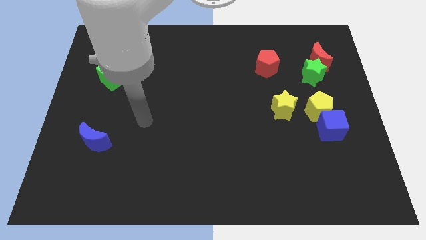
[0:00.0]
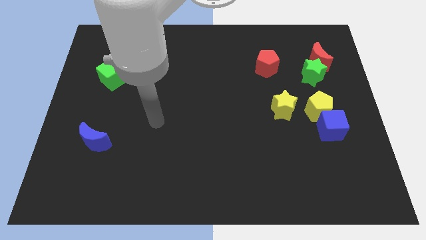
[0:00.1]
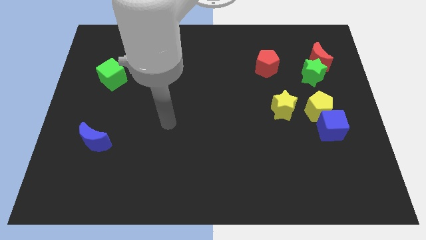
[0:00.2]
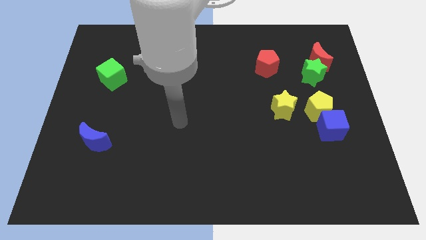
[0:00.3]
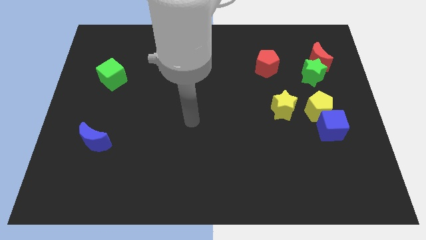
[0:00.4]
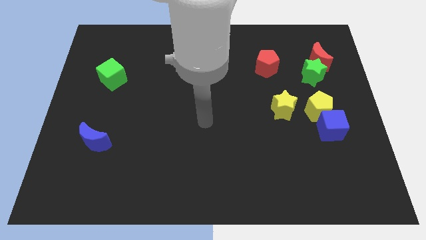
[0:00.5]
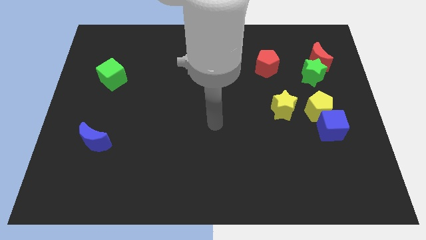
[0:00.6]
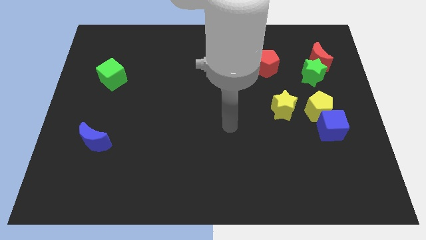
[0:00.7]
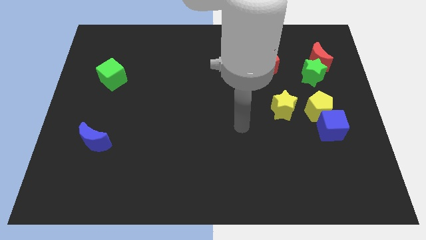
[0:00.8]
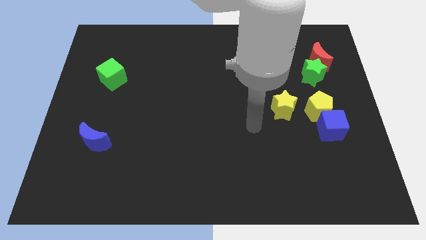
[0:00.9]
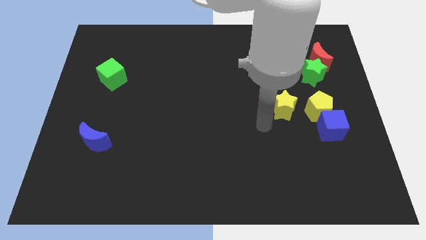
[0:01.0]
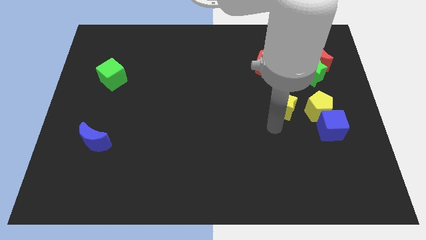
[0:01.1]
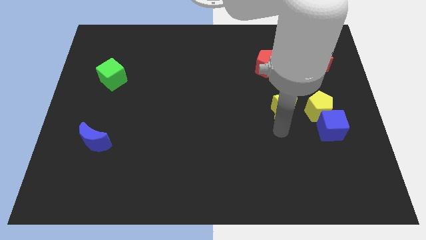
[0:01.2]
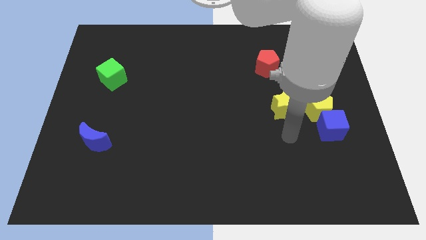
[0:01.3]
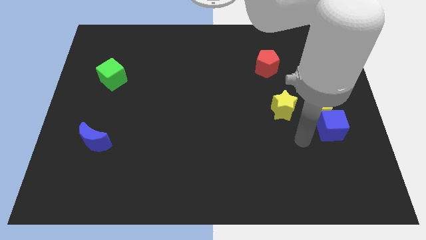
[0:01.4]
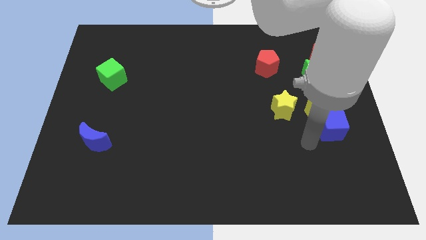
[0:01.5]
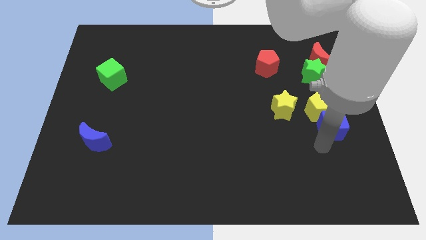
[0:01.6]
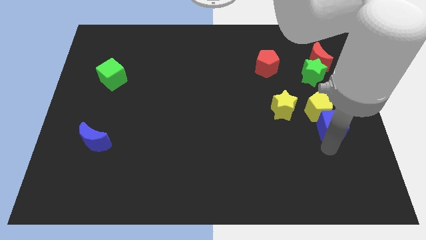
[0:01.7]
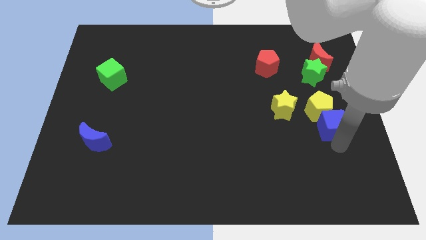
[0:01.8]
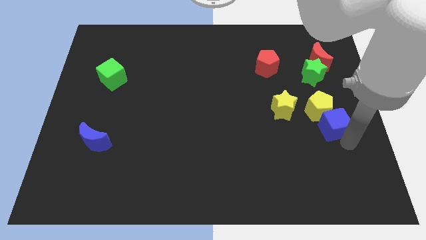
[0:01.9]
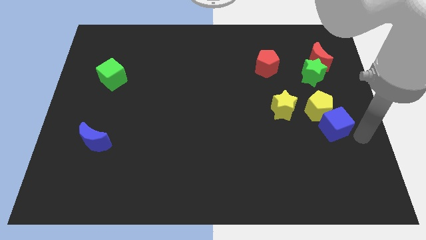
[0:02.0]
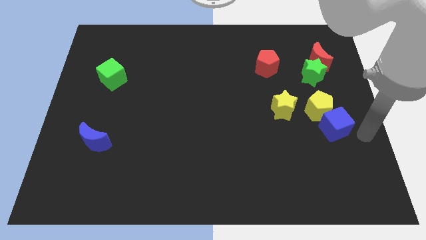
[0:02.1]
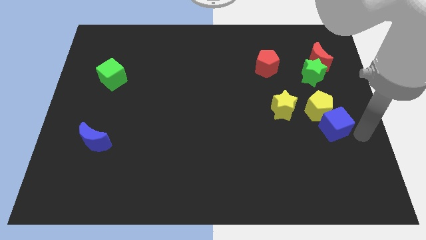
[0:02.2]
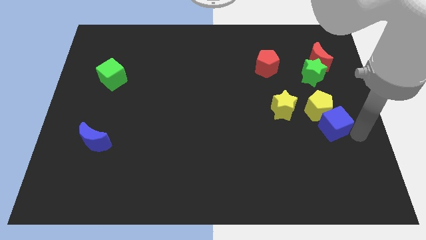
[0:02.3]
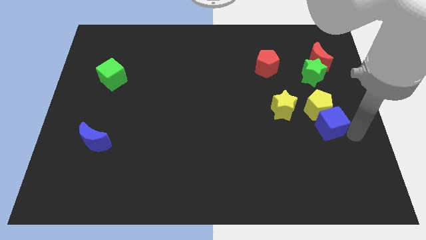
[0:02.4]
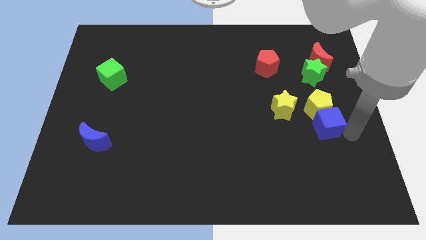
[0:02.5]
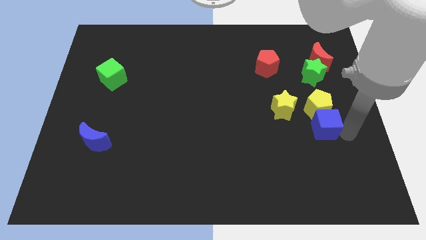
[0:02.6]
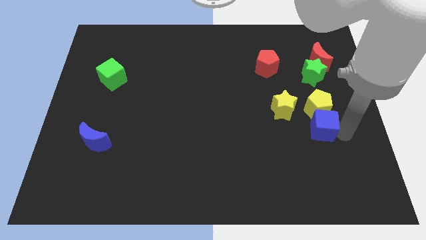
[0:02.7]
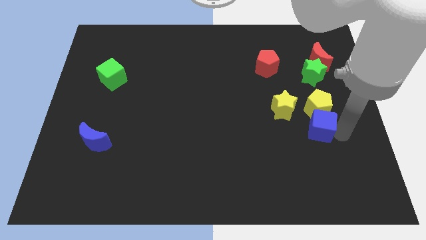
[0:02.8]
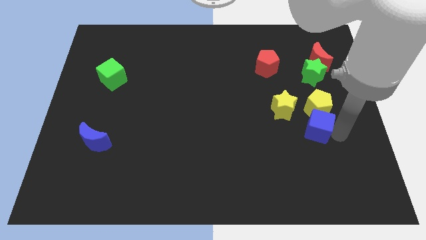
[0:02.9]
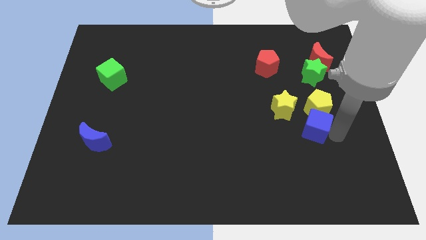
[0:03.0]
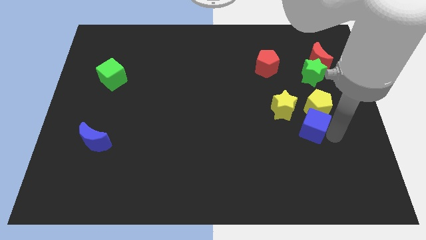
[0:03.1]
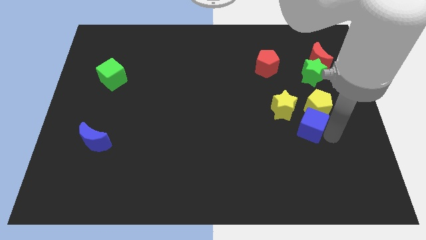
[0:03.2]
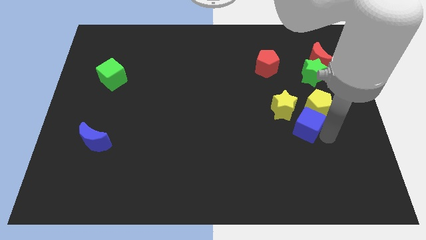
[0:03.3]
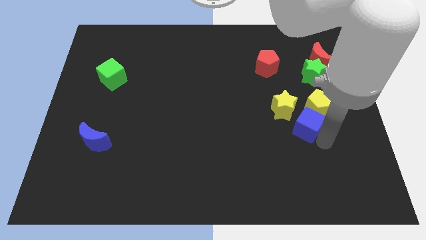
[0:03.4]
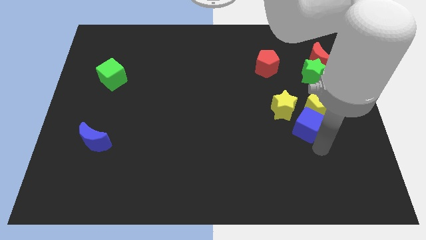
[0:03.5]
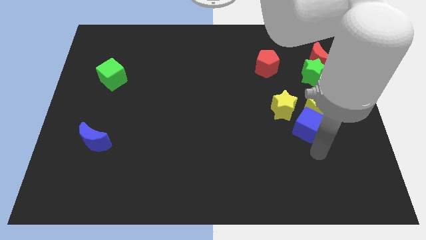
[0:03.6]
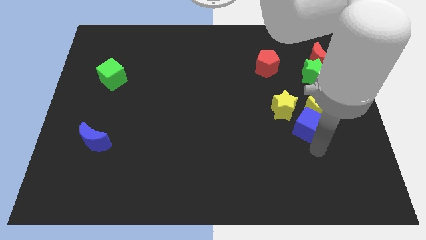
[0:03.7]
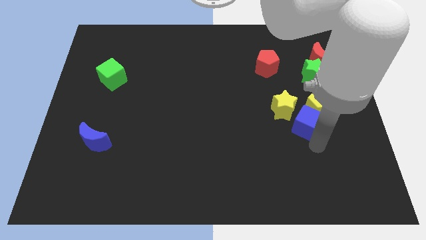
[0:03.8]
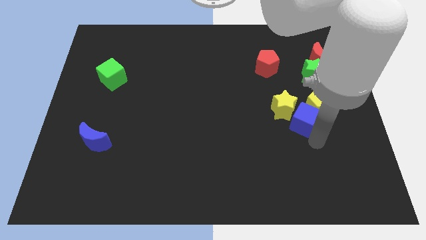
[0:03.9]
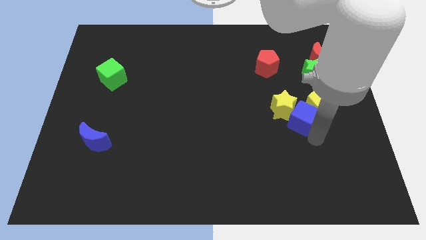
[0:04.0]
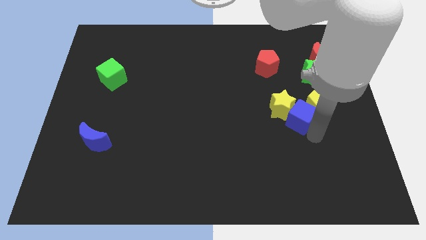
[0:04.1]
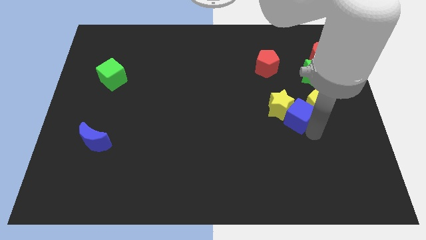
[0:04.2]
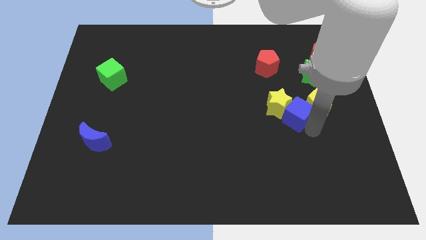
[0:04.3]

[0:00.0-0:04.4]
slightly push the blue cube upwards and then left

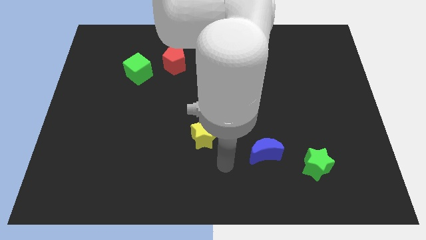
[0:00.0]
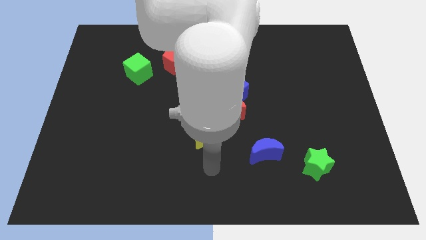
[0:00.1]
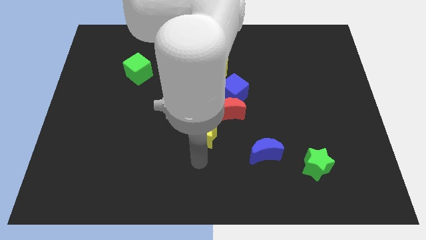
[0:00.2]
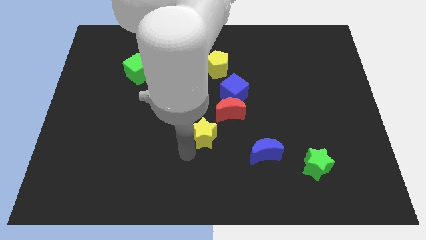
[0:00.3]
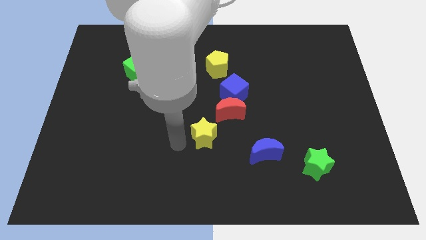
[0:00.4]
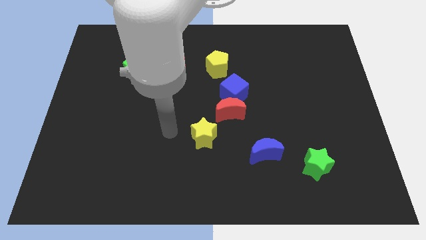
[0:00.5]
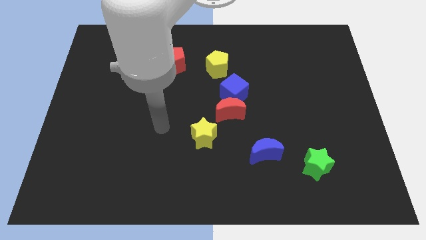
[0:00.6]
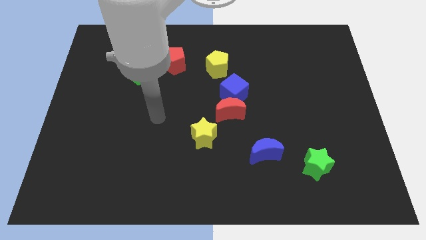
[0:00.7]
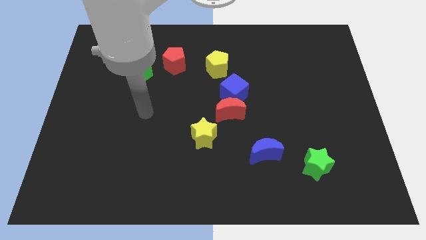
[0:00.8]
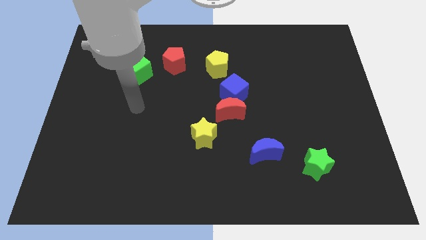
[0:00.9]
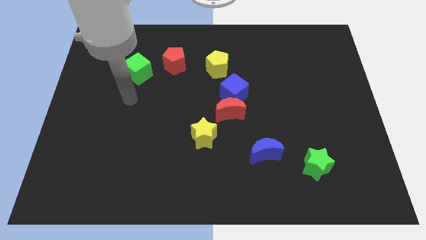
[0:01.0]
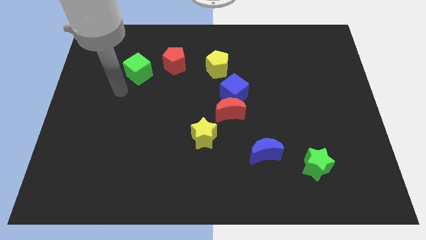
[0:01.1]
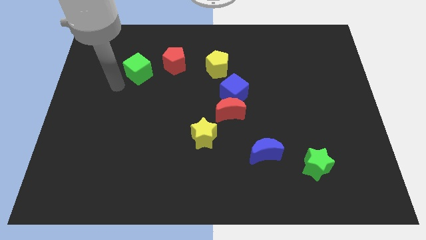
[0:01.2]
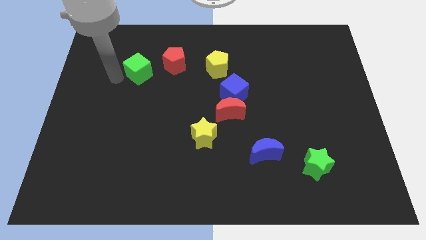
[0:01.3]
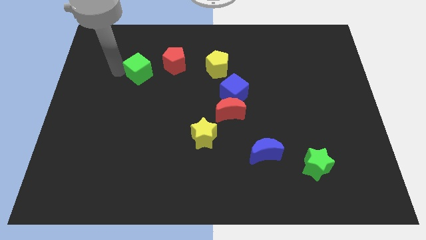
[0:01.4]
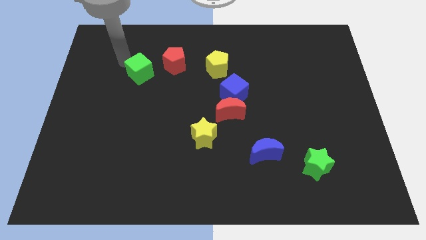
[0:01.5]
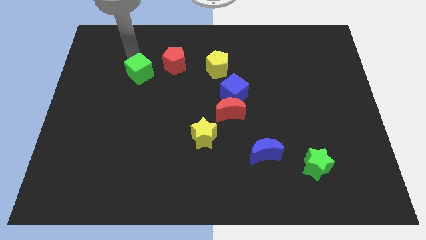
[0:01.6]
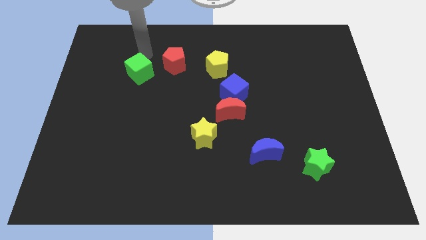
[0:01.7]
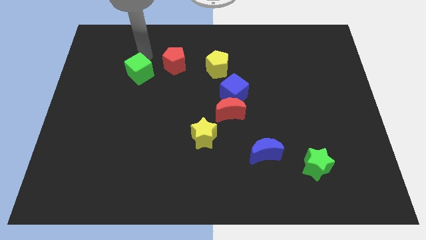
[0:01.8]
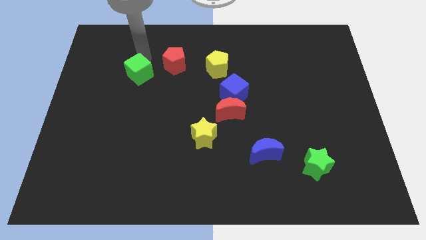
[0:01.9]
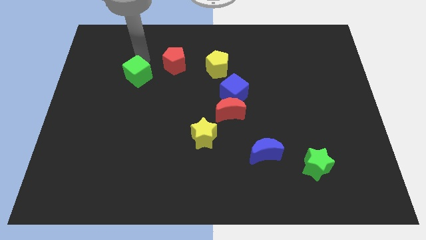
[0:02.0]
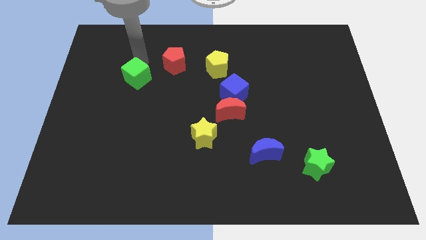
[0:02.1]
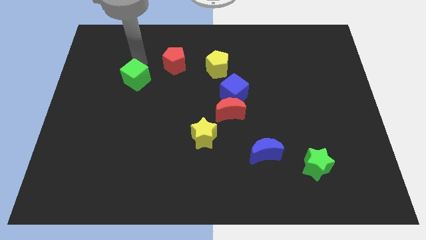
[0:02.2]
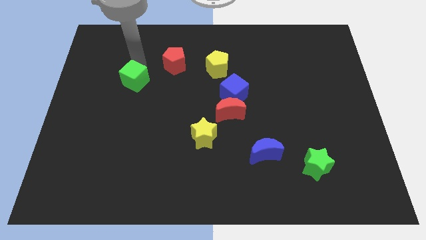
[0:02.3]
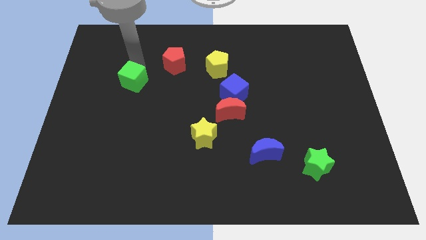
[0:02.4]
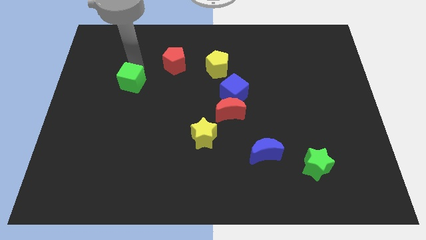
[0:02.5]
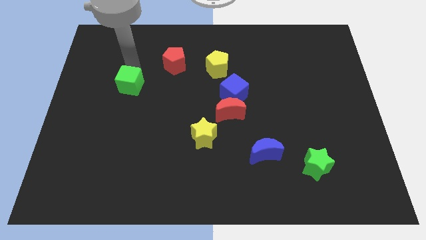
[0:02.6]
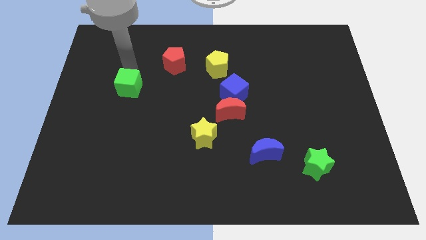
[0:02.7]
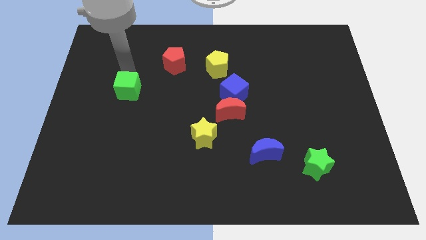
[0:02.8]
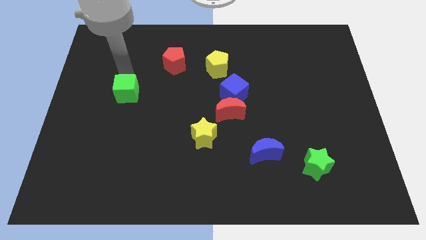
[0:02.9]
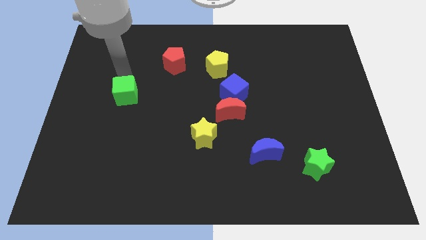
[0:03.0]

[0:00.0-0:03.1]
slide the green cube downwards a little bit

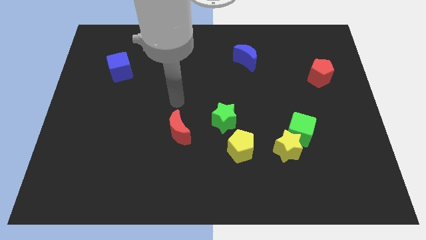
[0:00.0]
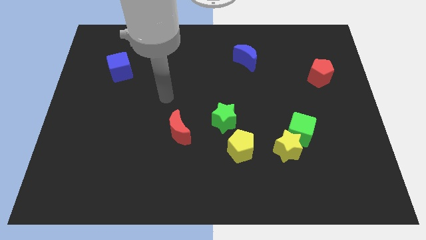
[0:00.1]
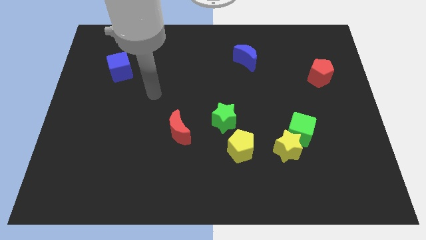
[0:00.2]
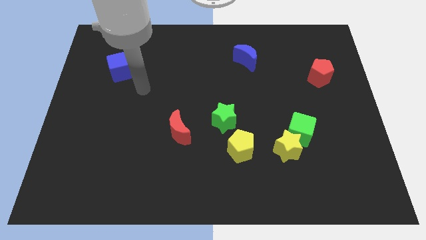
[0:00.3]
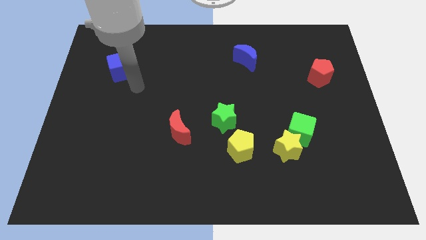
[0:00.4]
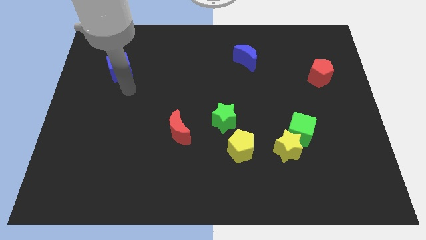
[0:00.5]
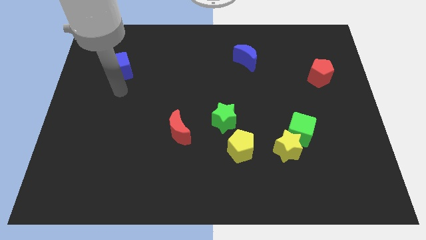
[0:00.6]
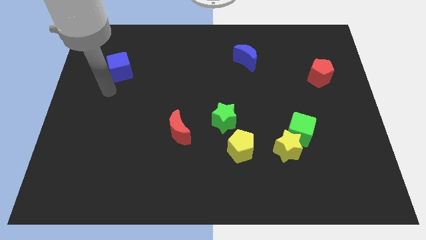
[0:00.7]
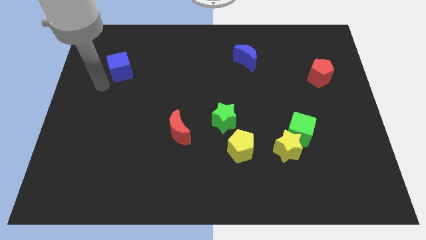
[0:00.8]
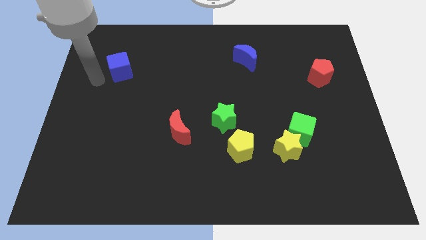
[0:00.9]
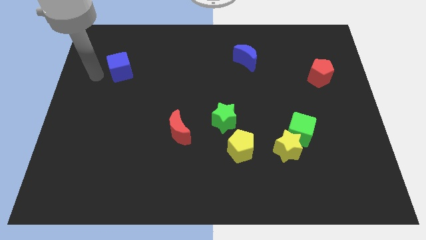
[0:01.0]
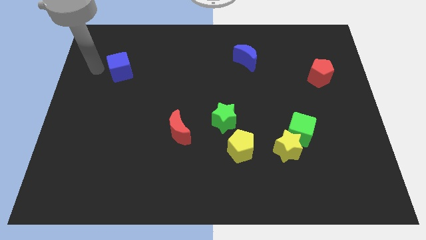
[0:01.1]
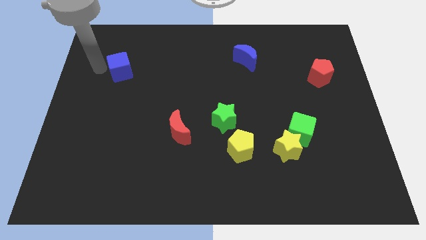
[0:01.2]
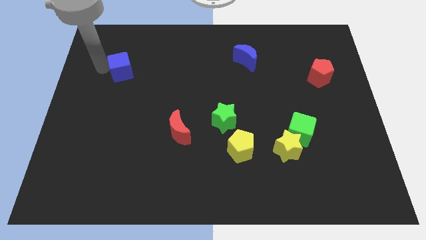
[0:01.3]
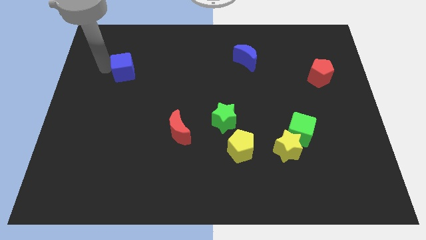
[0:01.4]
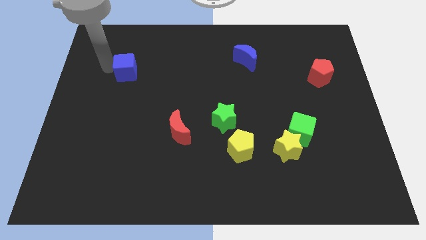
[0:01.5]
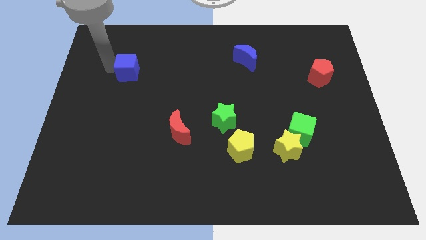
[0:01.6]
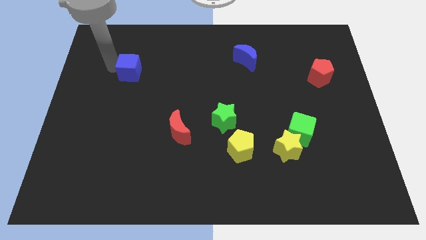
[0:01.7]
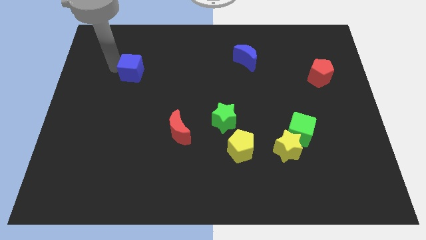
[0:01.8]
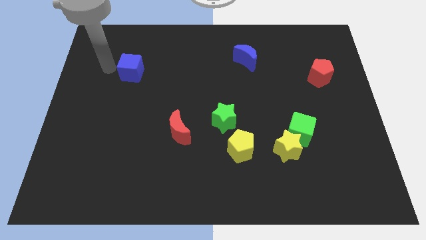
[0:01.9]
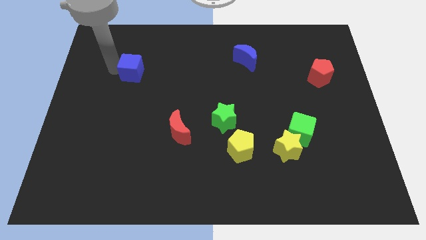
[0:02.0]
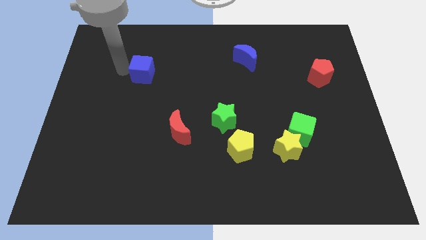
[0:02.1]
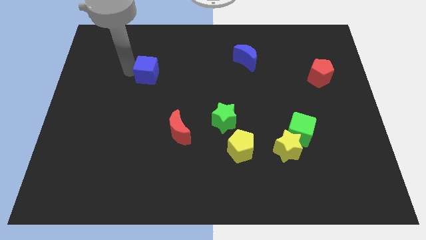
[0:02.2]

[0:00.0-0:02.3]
slightly slide the blue cube to the right
